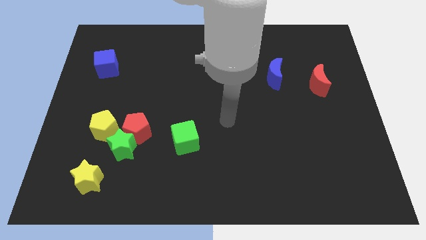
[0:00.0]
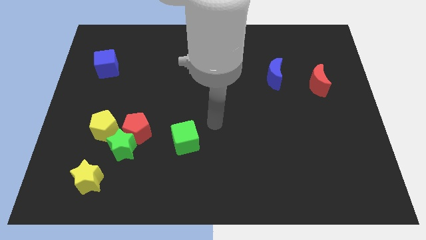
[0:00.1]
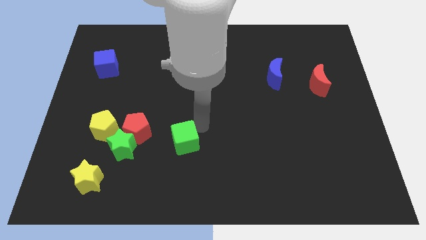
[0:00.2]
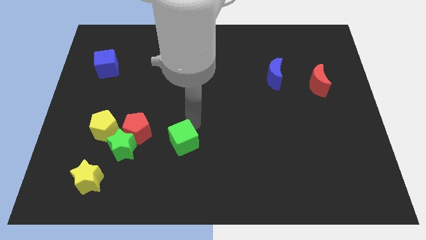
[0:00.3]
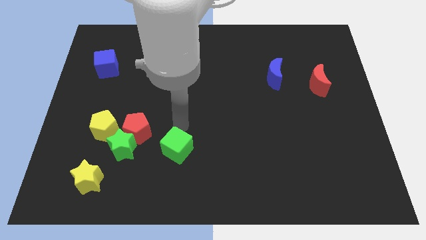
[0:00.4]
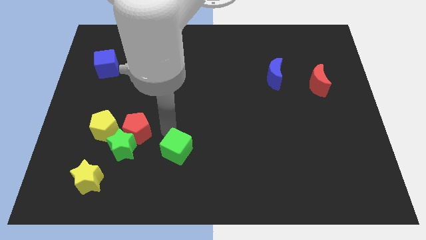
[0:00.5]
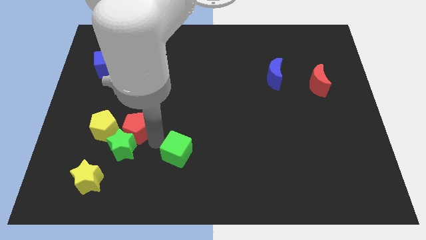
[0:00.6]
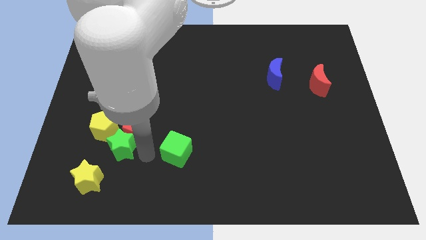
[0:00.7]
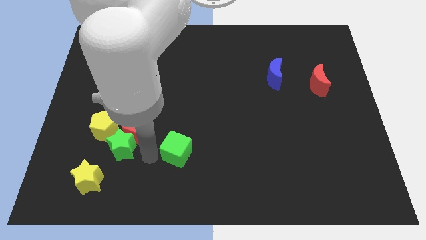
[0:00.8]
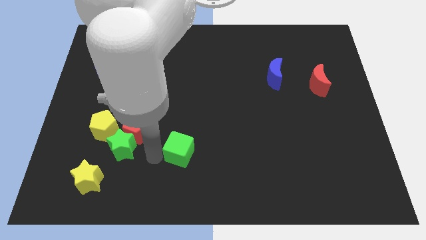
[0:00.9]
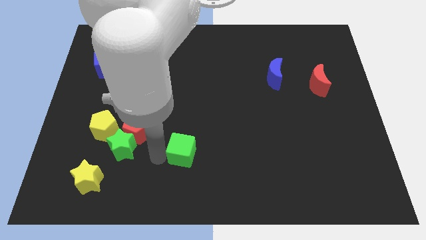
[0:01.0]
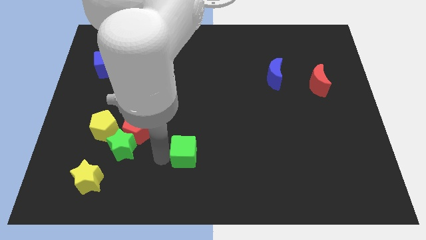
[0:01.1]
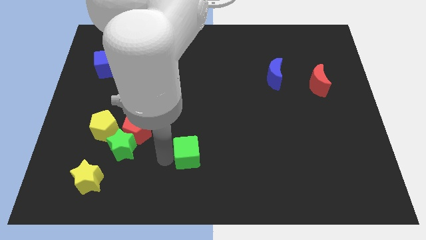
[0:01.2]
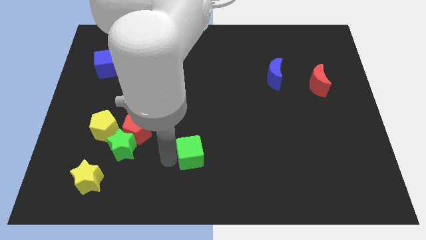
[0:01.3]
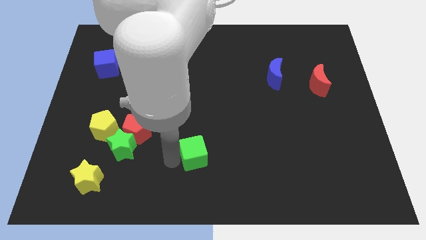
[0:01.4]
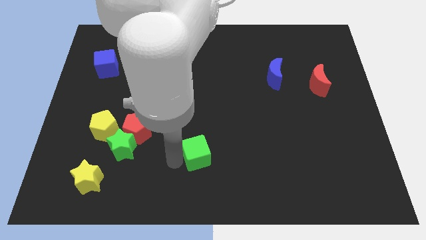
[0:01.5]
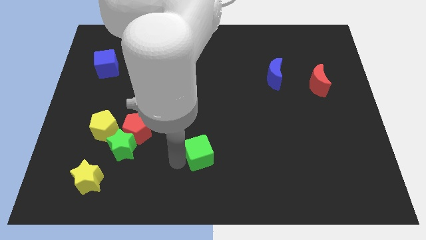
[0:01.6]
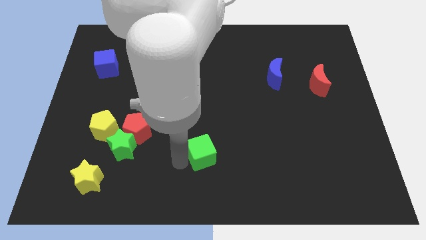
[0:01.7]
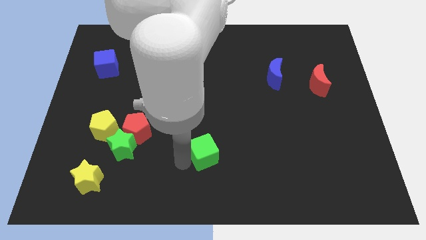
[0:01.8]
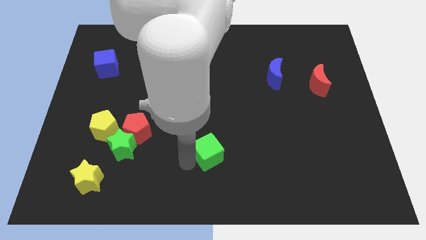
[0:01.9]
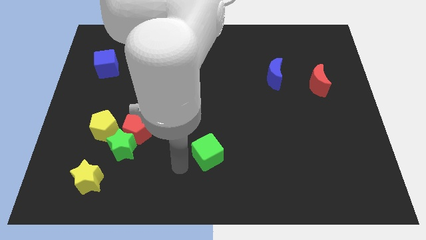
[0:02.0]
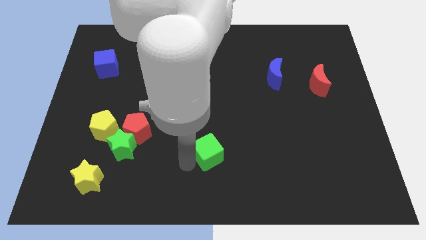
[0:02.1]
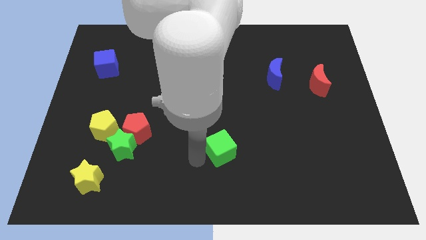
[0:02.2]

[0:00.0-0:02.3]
slightly move the green cube right

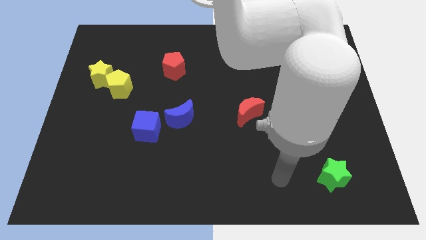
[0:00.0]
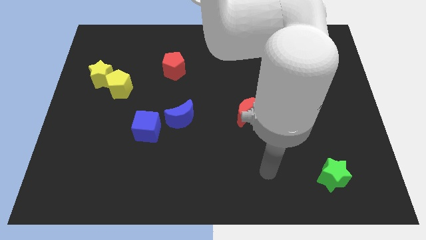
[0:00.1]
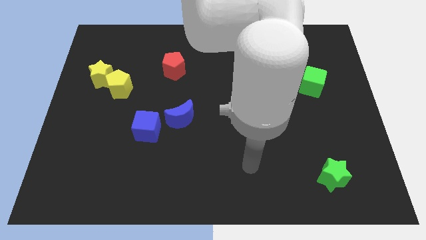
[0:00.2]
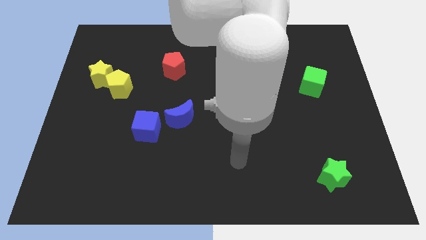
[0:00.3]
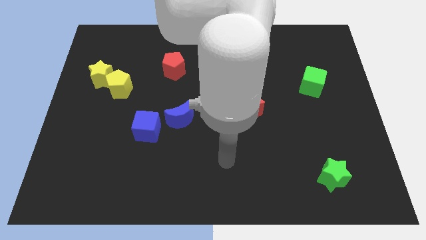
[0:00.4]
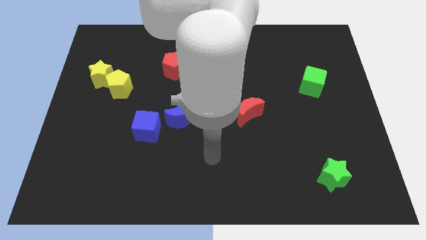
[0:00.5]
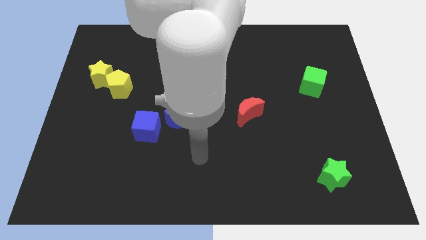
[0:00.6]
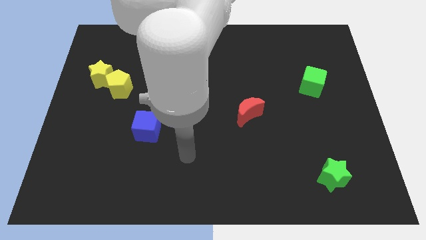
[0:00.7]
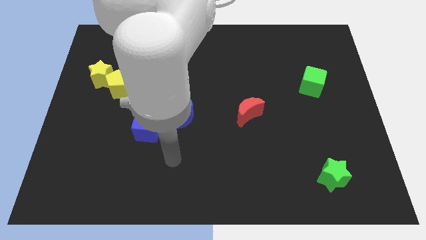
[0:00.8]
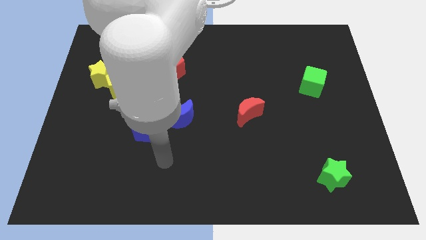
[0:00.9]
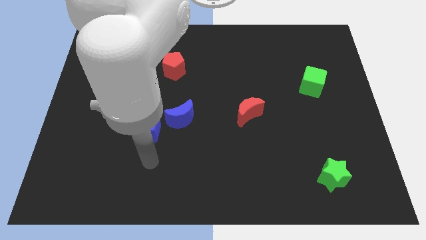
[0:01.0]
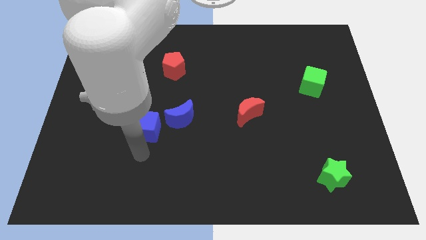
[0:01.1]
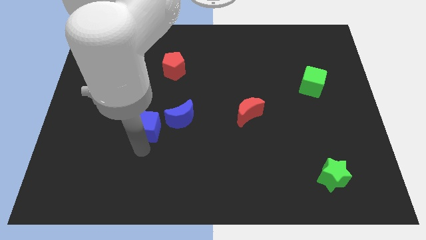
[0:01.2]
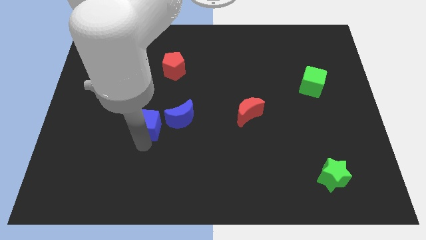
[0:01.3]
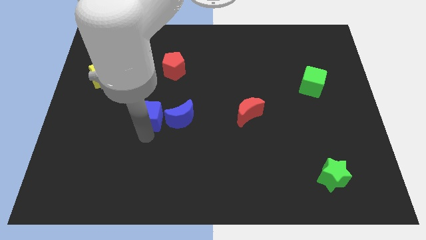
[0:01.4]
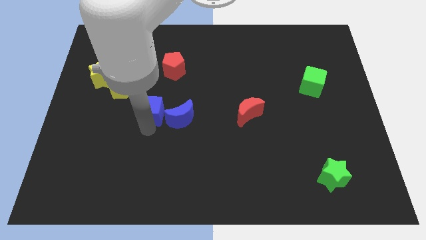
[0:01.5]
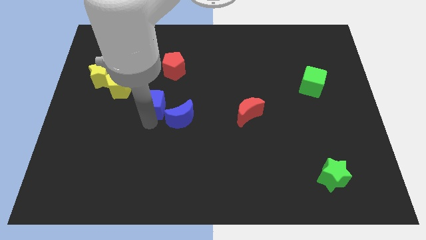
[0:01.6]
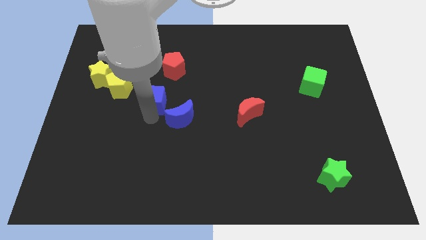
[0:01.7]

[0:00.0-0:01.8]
move the blue cube a little upwards

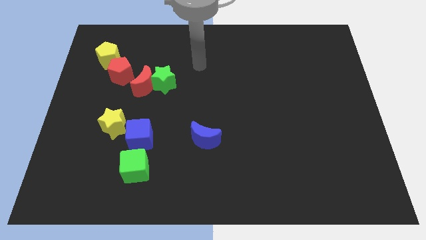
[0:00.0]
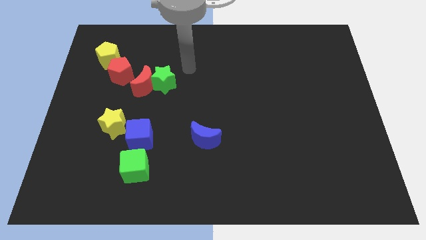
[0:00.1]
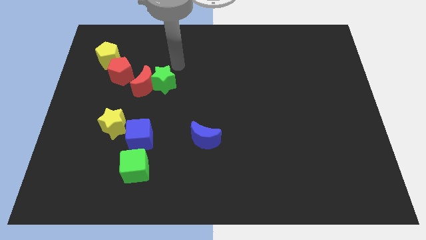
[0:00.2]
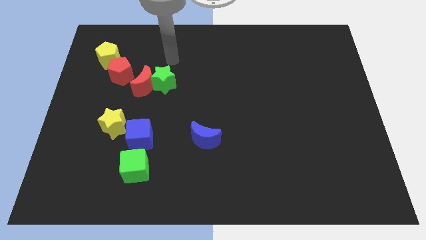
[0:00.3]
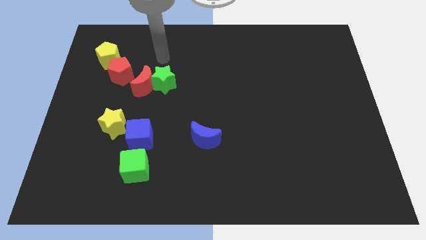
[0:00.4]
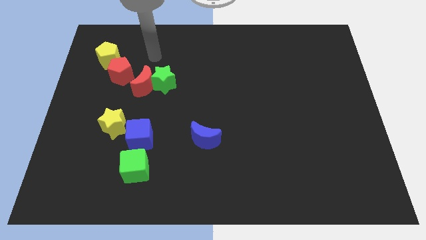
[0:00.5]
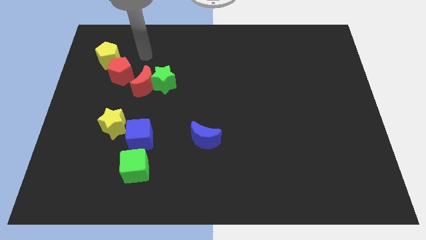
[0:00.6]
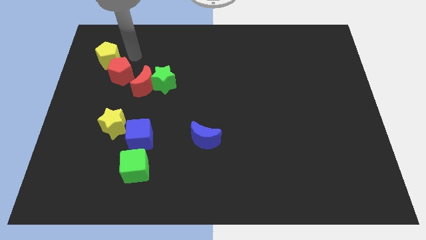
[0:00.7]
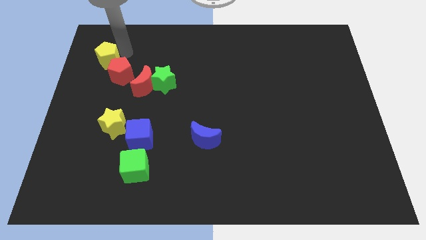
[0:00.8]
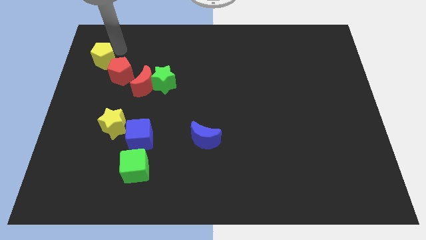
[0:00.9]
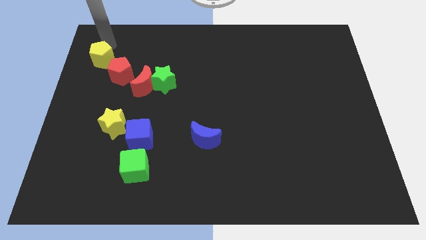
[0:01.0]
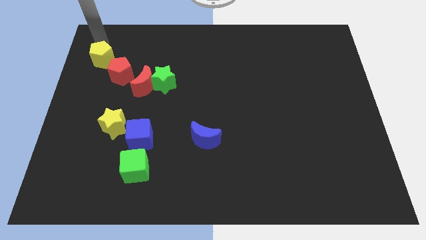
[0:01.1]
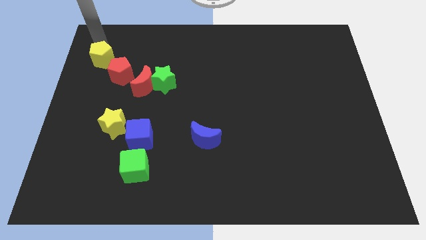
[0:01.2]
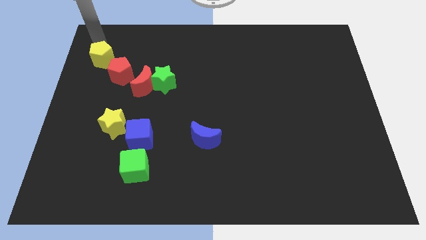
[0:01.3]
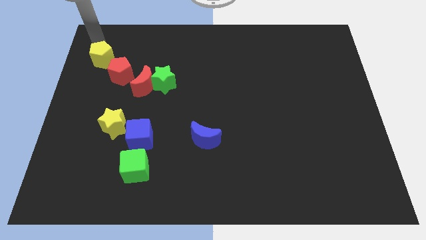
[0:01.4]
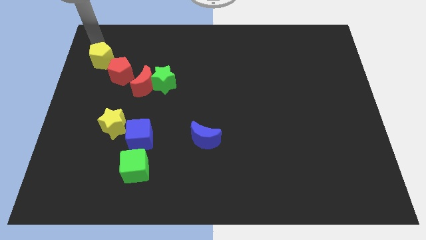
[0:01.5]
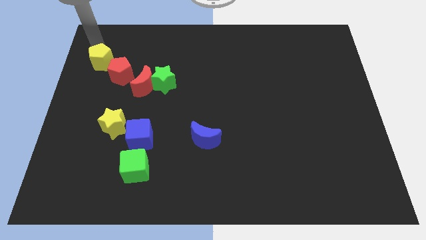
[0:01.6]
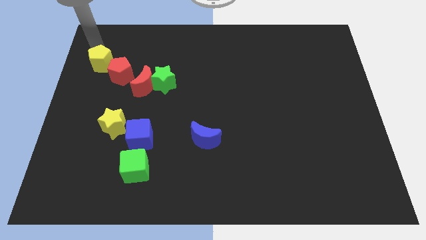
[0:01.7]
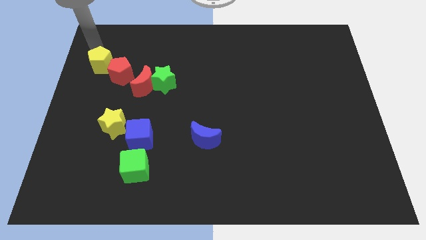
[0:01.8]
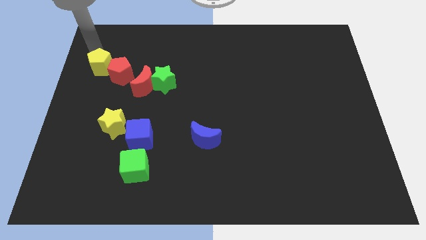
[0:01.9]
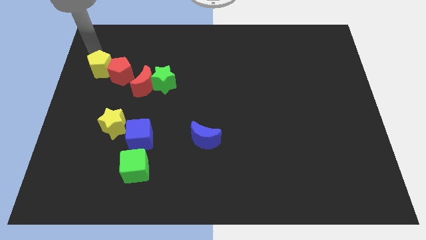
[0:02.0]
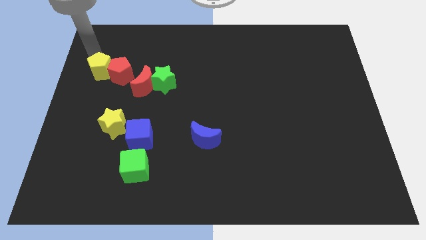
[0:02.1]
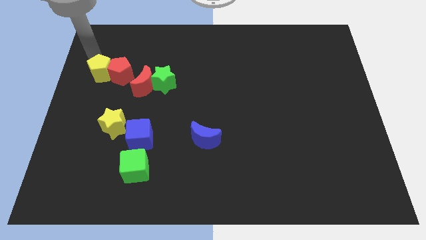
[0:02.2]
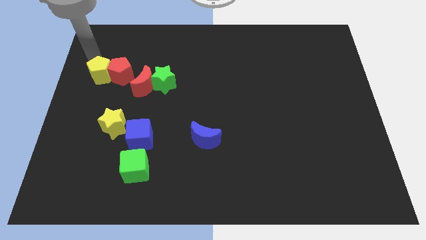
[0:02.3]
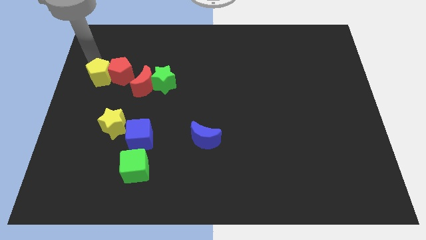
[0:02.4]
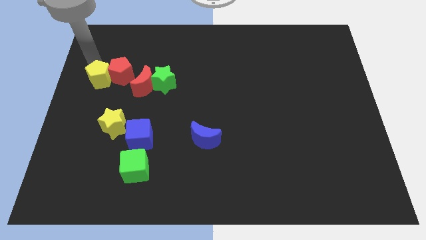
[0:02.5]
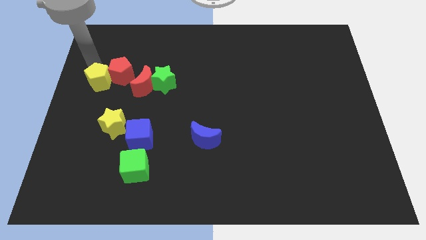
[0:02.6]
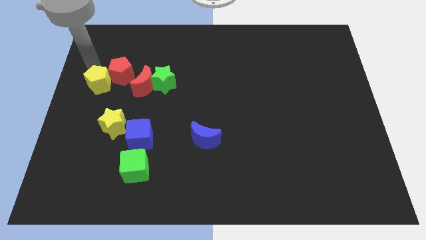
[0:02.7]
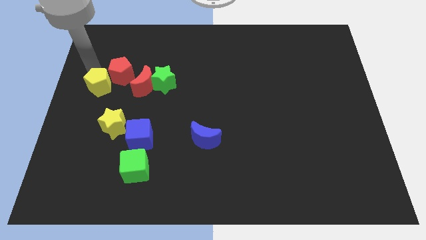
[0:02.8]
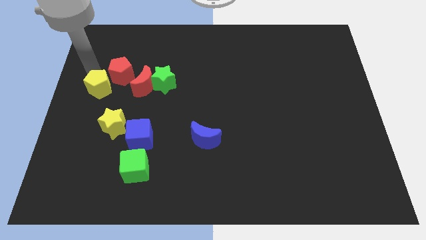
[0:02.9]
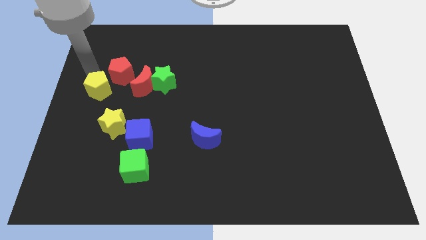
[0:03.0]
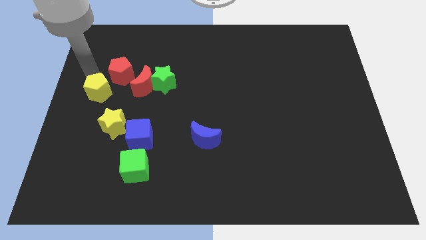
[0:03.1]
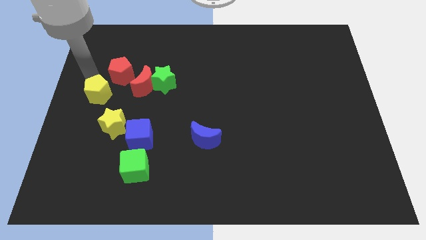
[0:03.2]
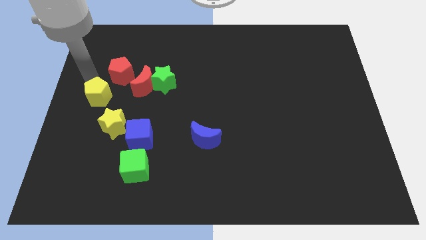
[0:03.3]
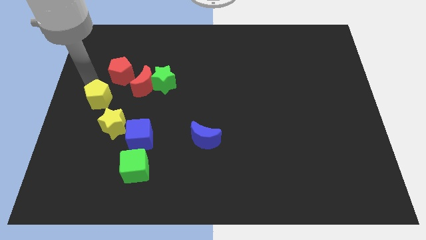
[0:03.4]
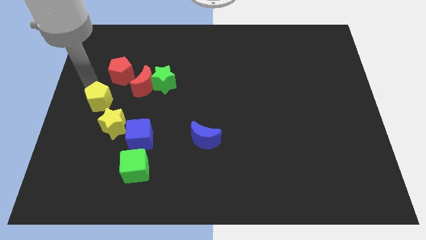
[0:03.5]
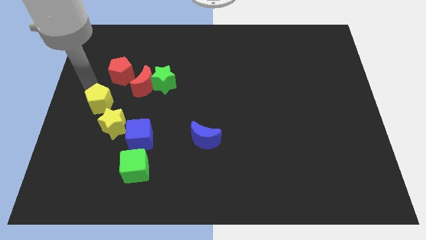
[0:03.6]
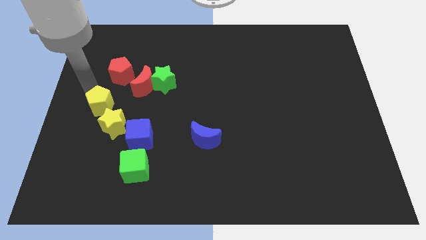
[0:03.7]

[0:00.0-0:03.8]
move the yellow pentagon down and to the right diagonally slightly
